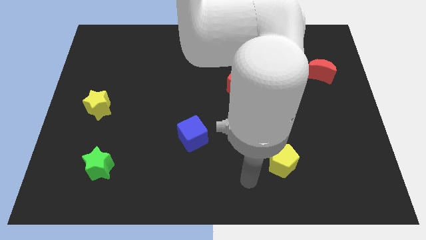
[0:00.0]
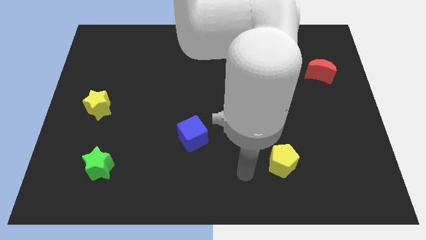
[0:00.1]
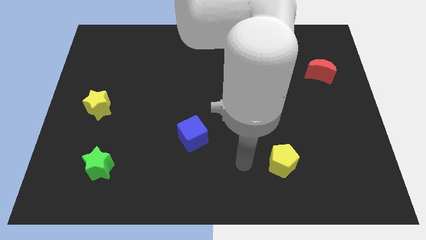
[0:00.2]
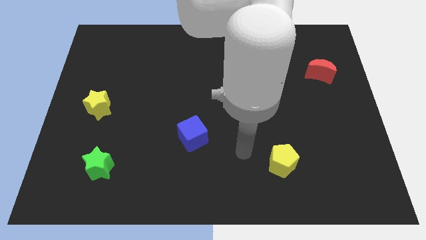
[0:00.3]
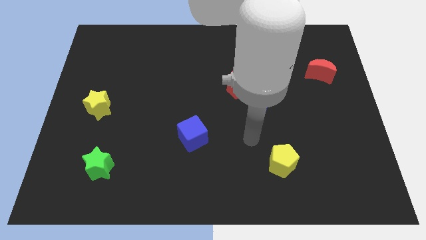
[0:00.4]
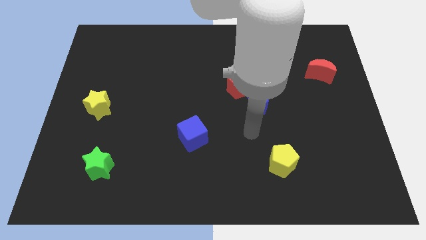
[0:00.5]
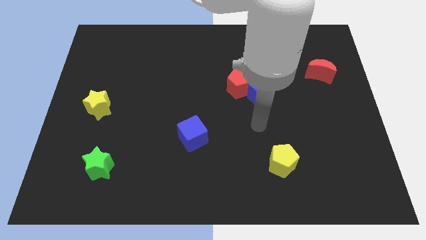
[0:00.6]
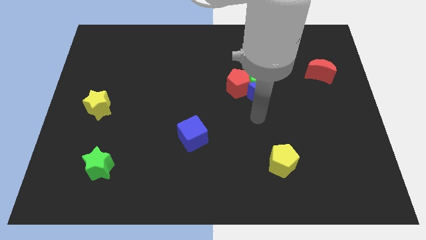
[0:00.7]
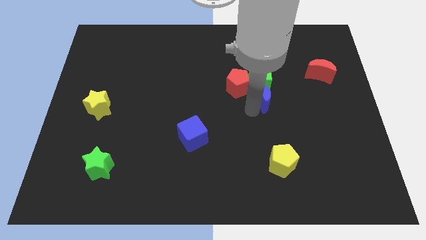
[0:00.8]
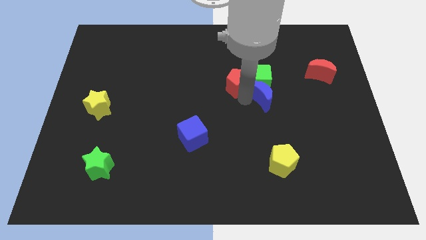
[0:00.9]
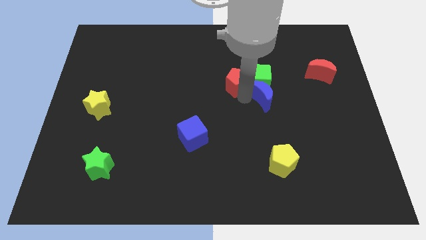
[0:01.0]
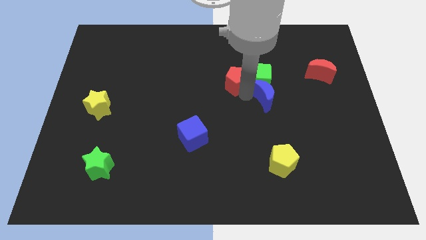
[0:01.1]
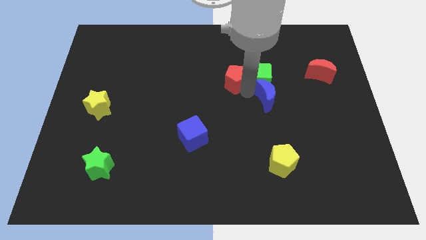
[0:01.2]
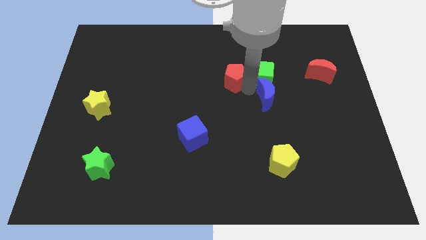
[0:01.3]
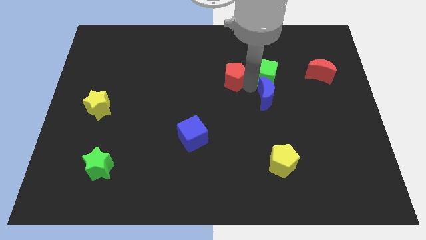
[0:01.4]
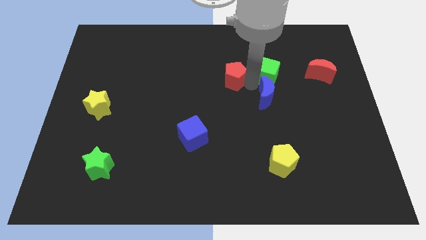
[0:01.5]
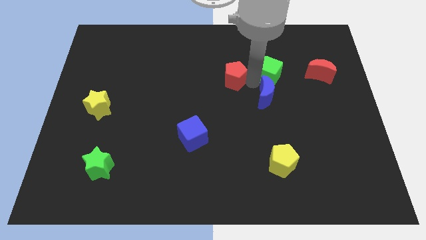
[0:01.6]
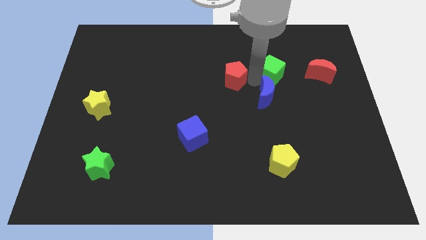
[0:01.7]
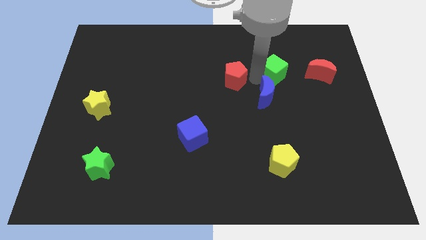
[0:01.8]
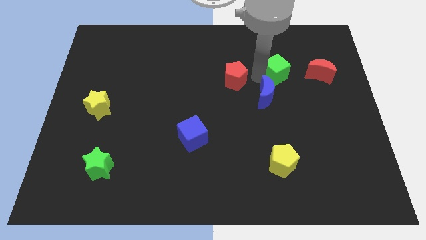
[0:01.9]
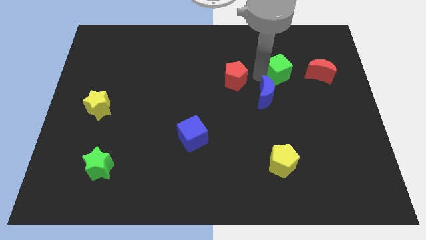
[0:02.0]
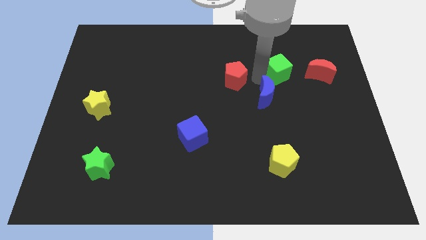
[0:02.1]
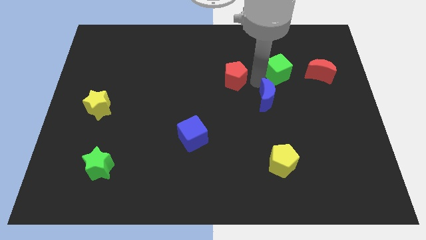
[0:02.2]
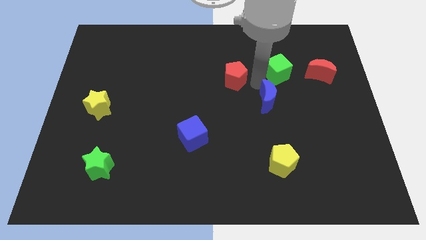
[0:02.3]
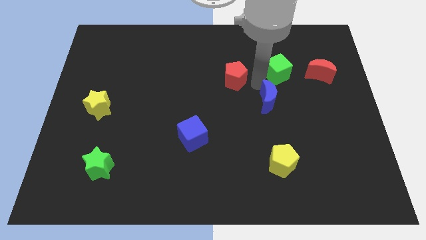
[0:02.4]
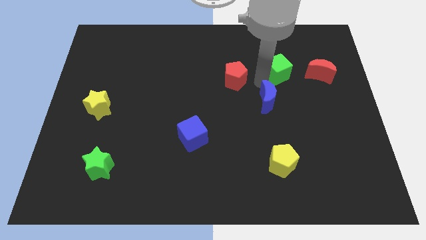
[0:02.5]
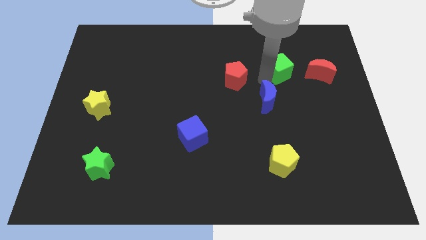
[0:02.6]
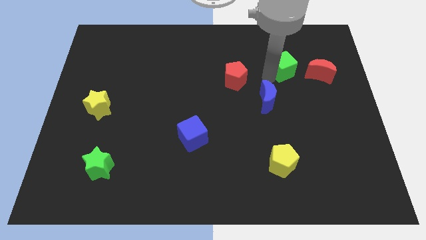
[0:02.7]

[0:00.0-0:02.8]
move the green cube away from the red pentagon and blue moon

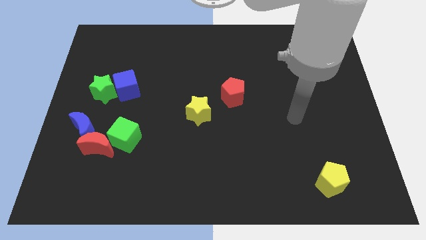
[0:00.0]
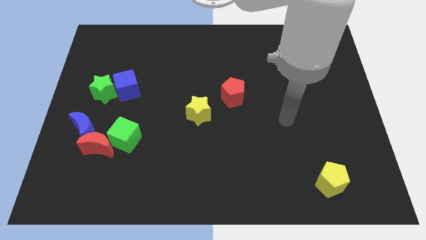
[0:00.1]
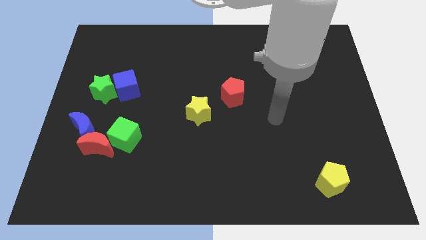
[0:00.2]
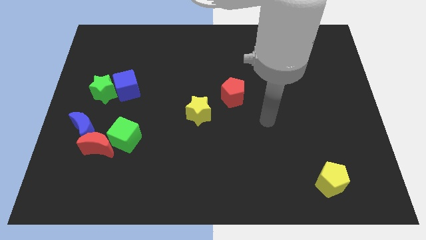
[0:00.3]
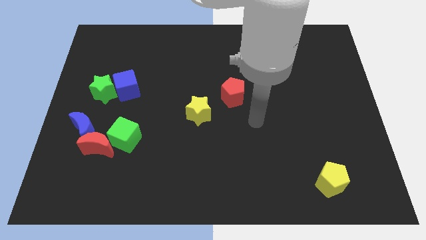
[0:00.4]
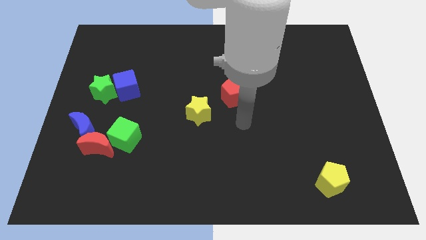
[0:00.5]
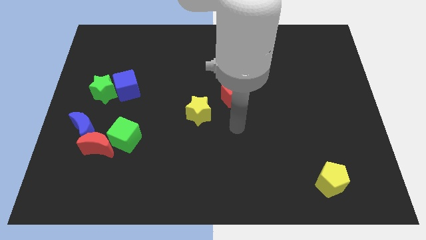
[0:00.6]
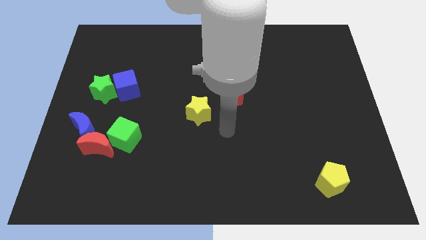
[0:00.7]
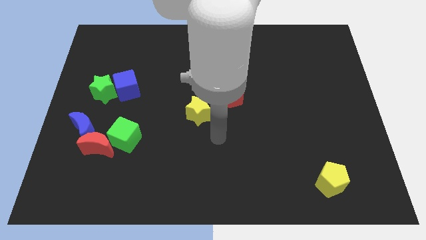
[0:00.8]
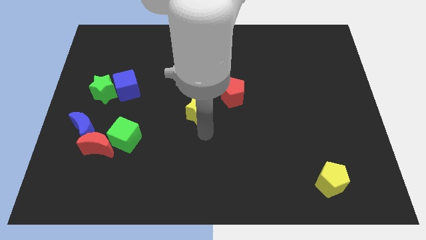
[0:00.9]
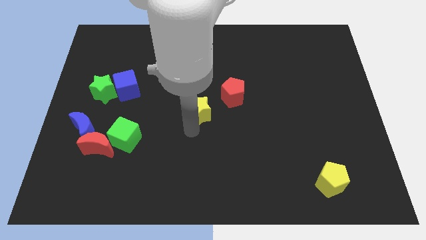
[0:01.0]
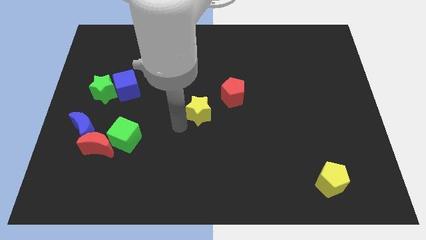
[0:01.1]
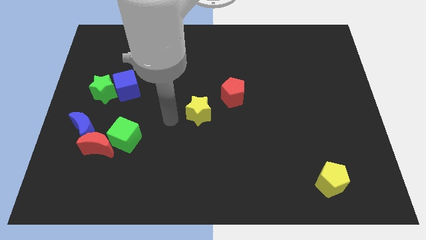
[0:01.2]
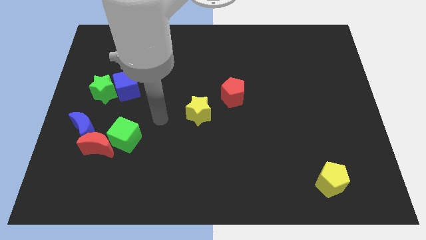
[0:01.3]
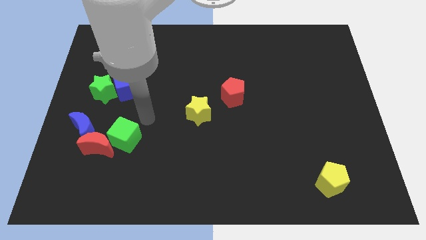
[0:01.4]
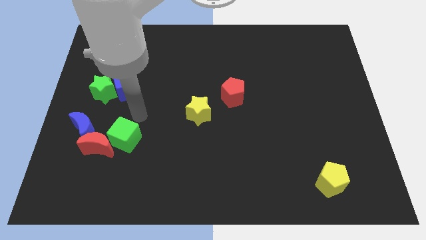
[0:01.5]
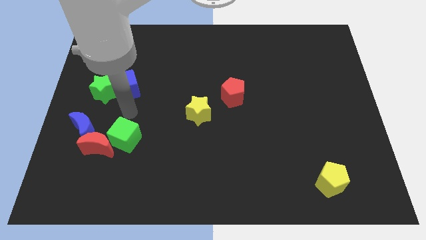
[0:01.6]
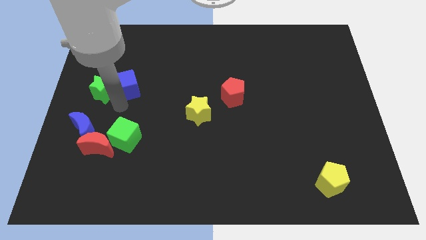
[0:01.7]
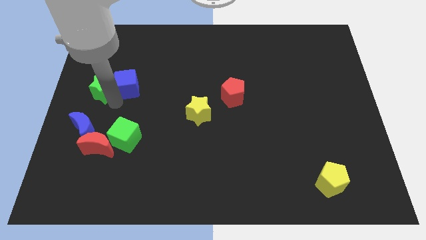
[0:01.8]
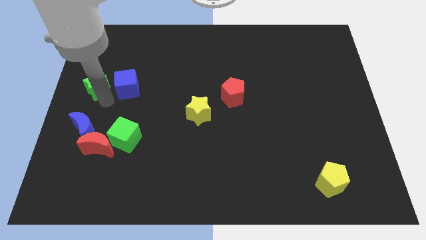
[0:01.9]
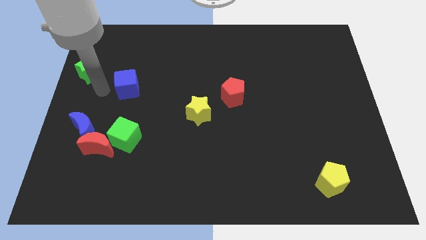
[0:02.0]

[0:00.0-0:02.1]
pull the blue cube apart from the green star

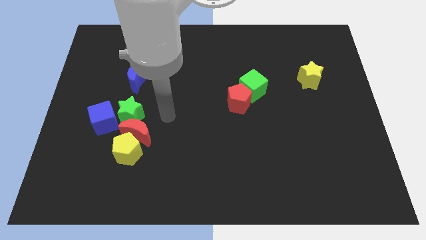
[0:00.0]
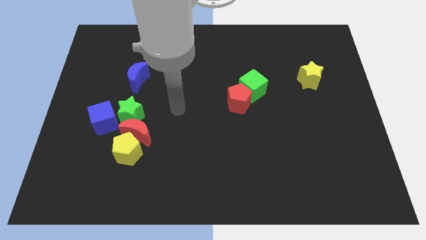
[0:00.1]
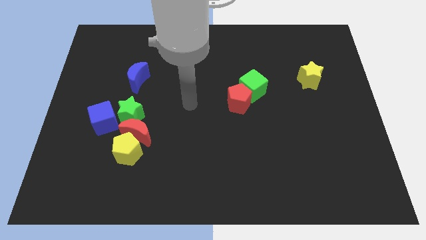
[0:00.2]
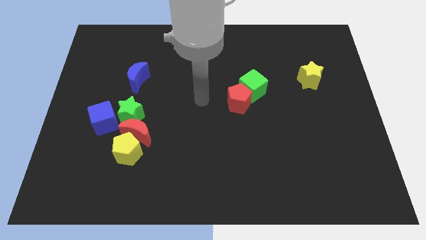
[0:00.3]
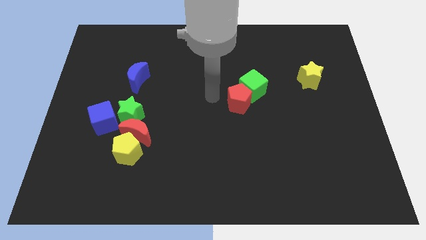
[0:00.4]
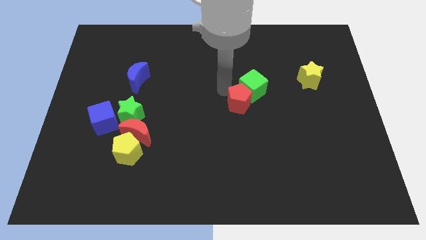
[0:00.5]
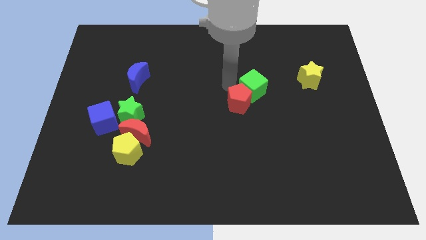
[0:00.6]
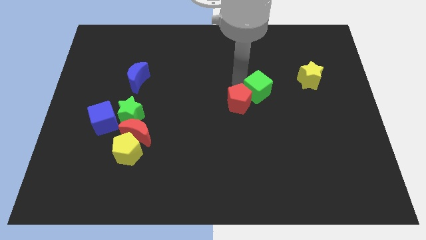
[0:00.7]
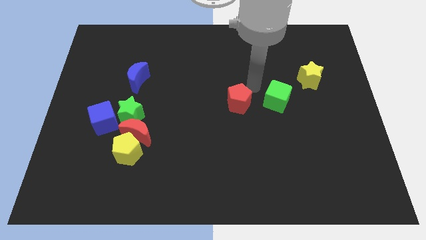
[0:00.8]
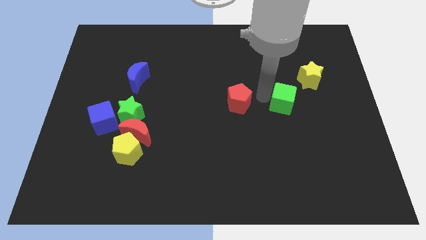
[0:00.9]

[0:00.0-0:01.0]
separate the red pentagon from the green cube

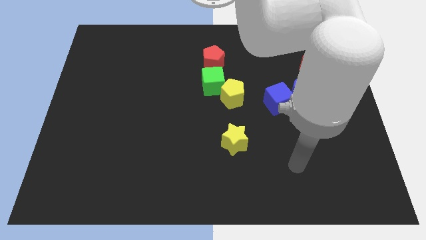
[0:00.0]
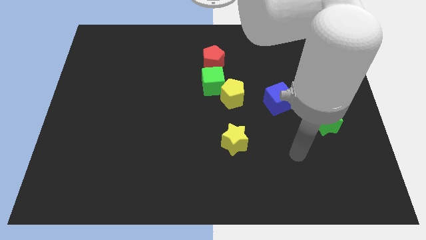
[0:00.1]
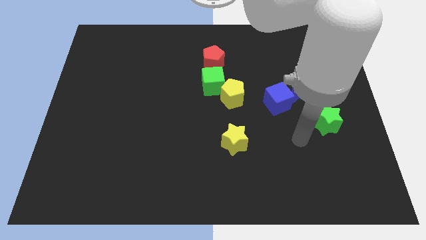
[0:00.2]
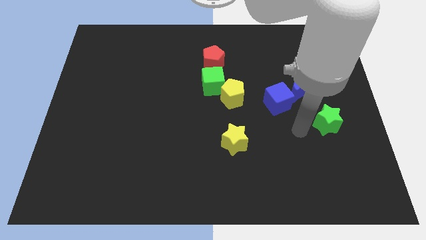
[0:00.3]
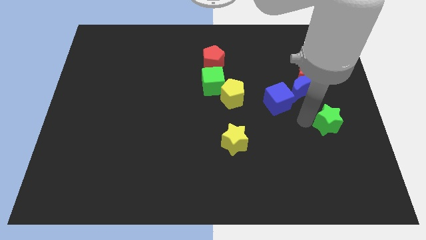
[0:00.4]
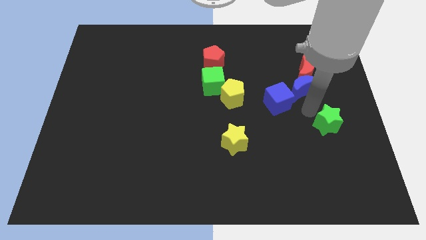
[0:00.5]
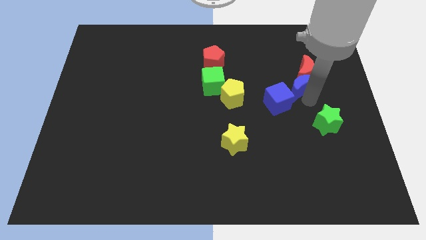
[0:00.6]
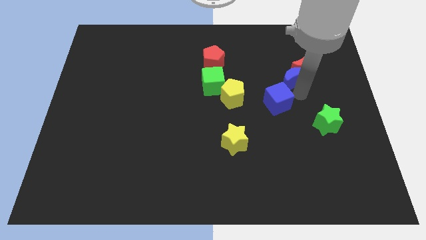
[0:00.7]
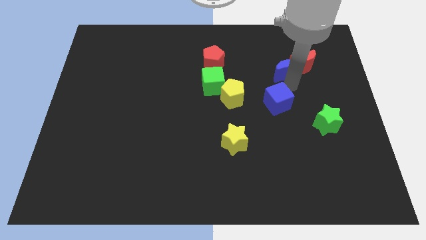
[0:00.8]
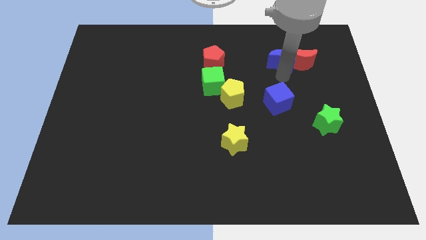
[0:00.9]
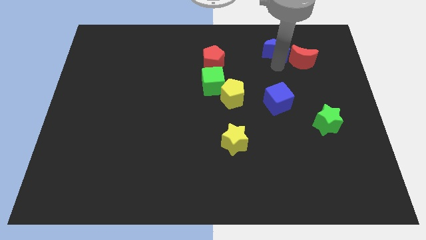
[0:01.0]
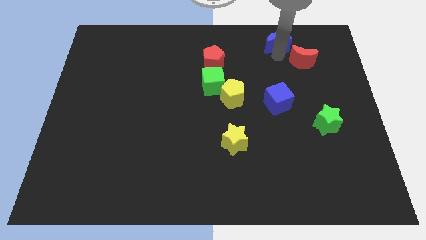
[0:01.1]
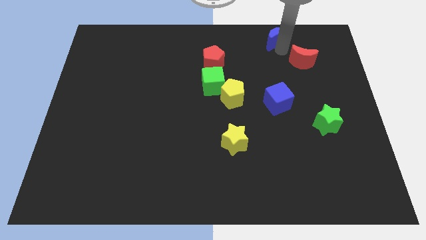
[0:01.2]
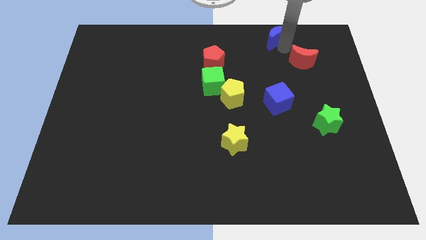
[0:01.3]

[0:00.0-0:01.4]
move the red moon away from the blue moon

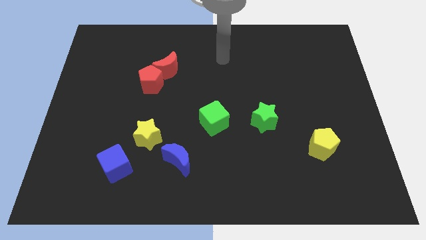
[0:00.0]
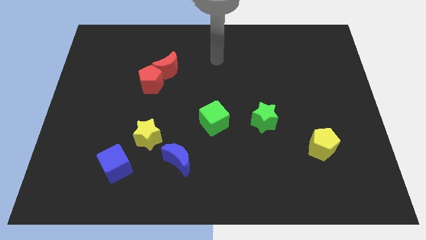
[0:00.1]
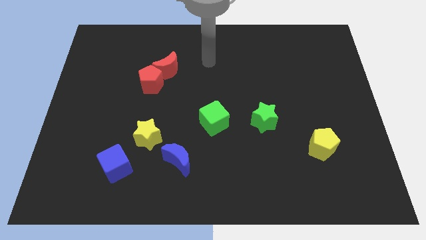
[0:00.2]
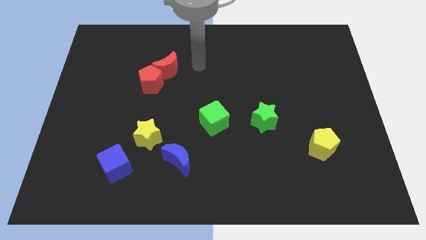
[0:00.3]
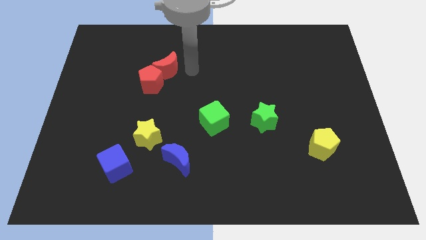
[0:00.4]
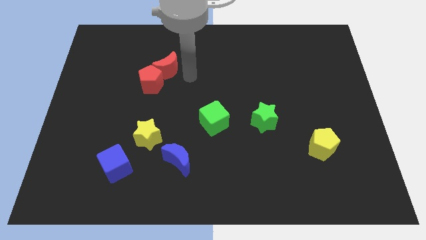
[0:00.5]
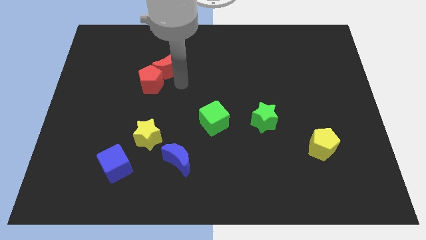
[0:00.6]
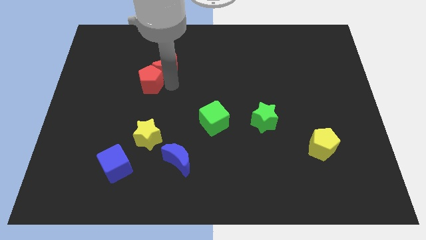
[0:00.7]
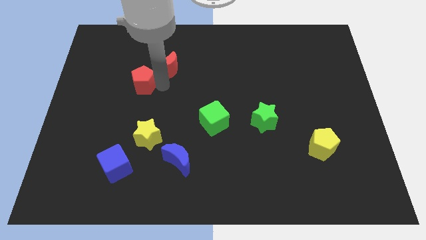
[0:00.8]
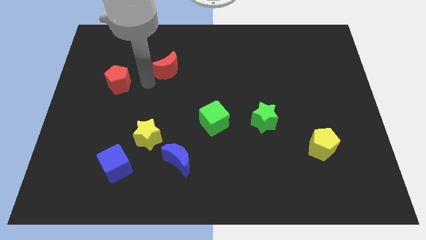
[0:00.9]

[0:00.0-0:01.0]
move the red moon away from the red pentagon

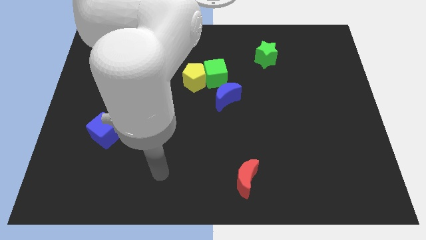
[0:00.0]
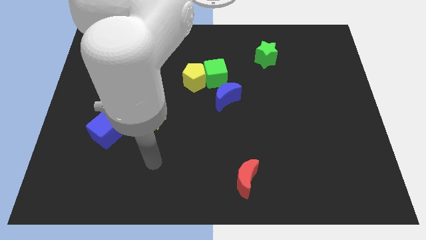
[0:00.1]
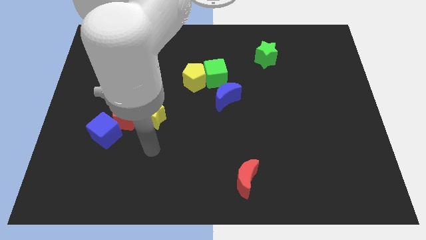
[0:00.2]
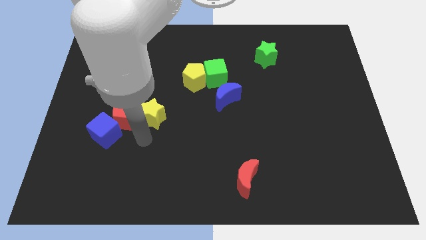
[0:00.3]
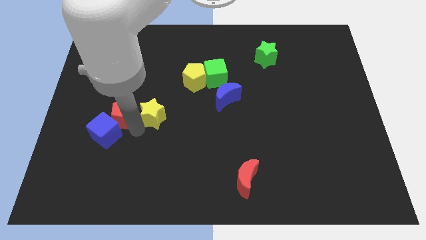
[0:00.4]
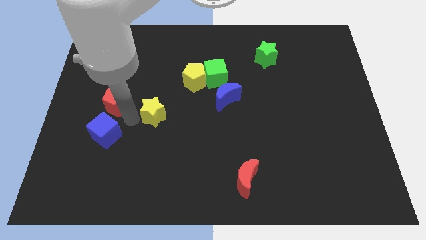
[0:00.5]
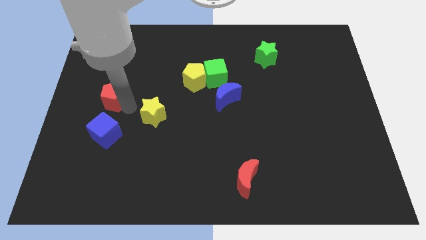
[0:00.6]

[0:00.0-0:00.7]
move the yellow star away from the red pentagon

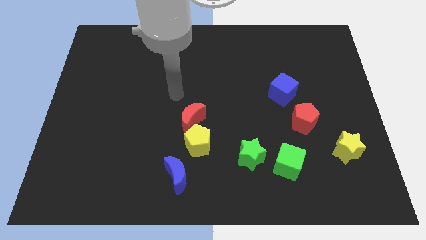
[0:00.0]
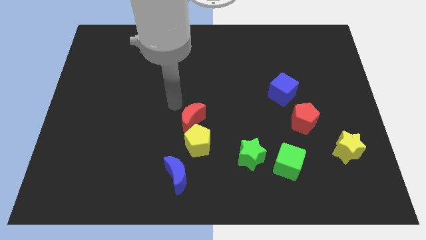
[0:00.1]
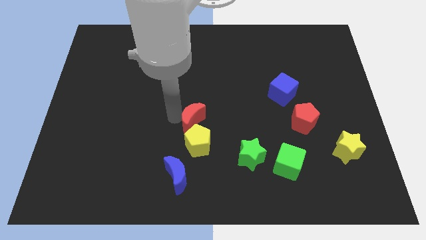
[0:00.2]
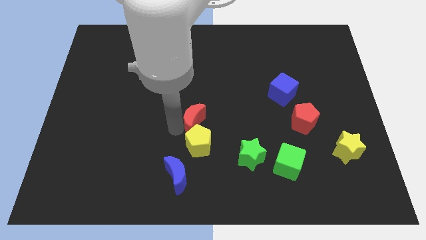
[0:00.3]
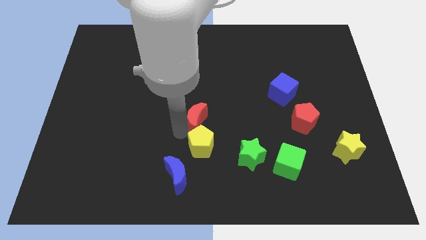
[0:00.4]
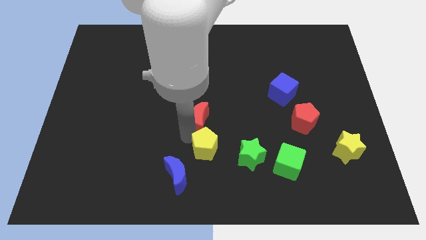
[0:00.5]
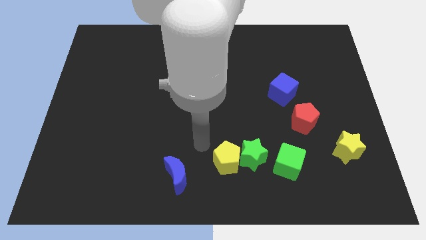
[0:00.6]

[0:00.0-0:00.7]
separate the red moon from the yellow pentagon
